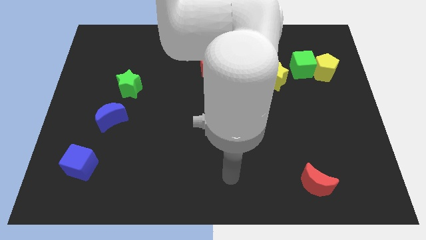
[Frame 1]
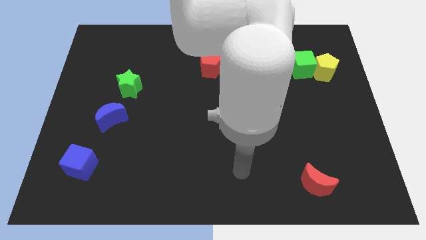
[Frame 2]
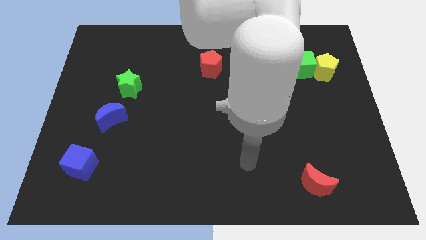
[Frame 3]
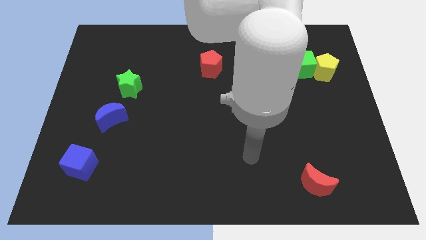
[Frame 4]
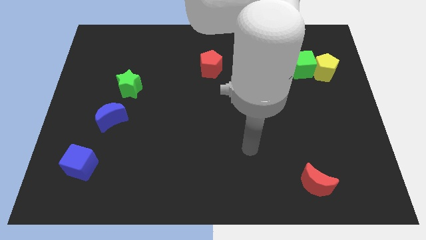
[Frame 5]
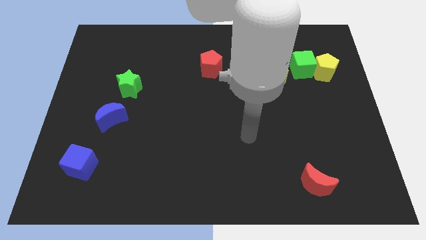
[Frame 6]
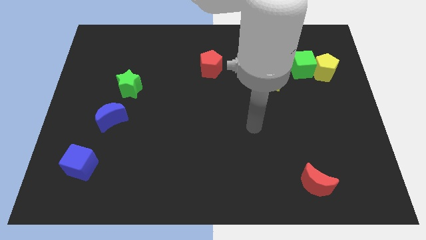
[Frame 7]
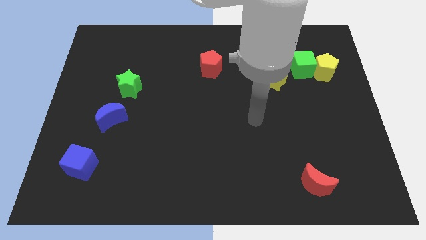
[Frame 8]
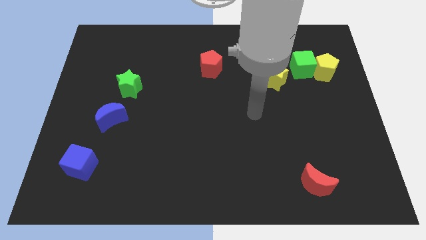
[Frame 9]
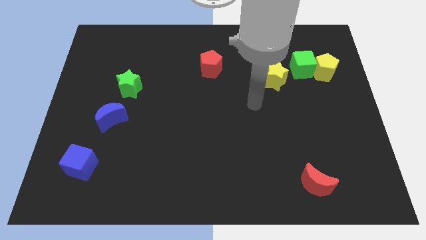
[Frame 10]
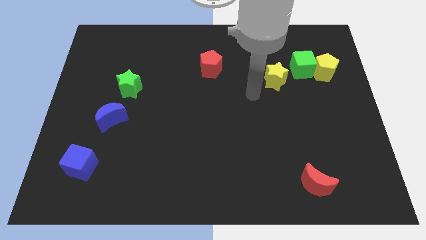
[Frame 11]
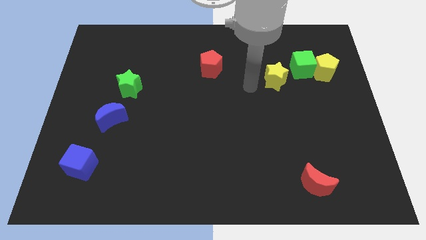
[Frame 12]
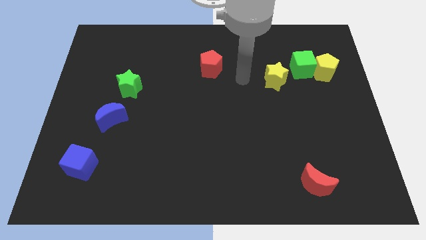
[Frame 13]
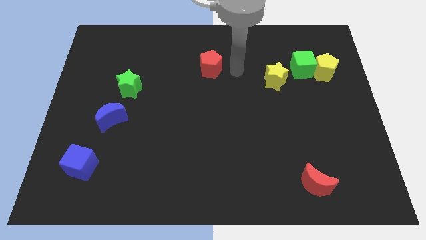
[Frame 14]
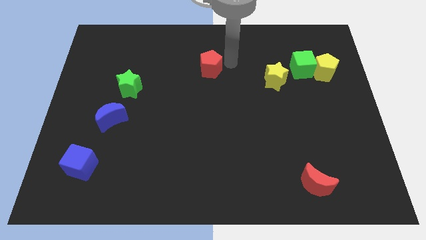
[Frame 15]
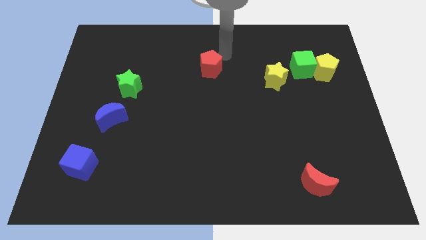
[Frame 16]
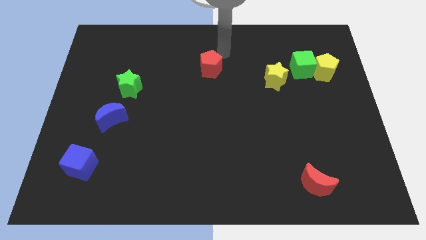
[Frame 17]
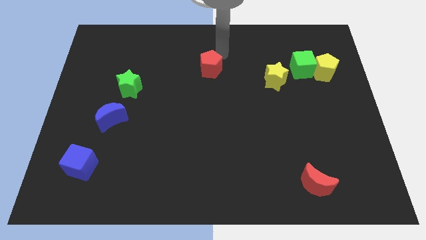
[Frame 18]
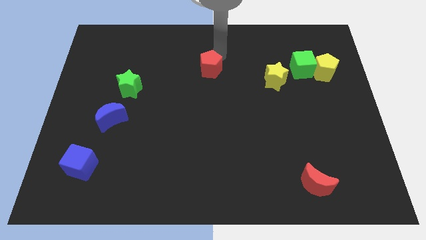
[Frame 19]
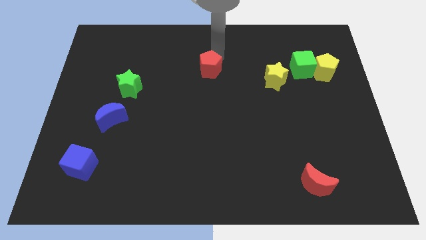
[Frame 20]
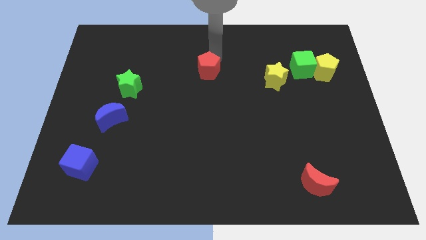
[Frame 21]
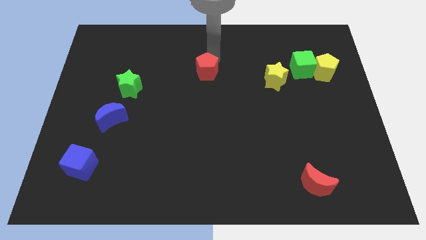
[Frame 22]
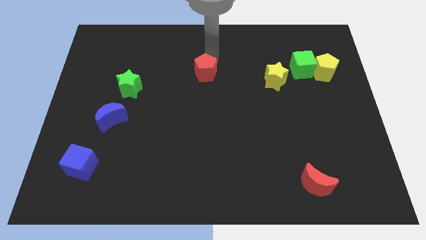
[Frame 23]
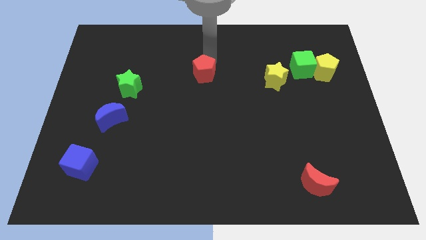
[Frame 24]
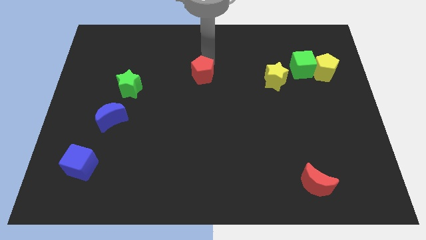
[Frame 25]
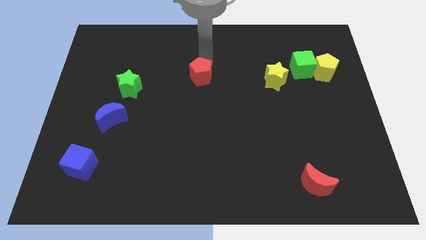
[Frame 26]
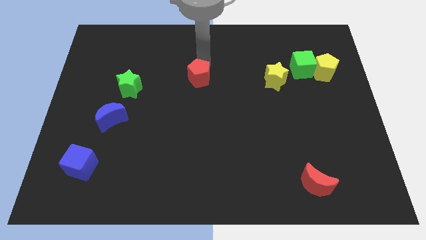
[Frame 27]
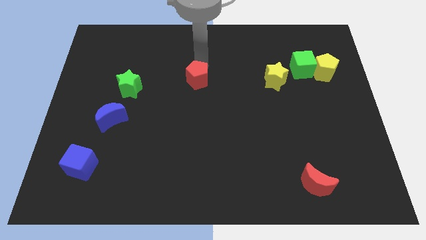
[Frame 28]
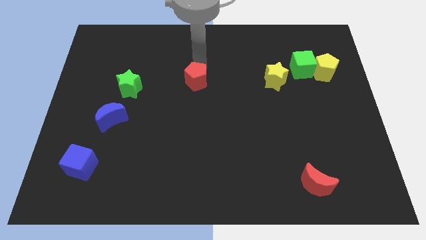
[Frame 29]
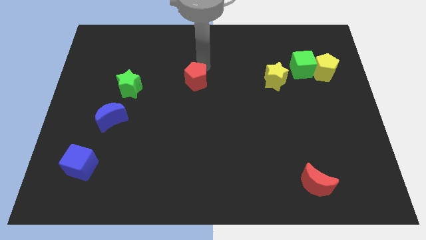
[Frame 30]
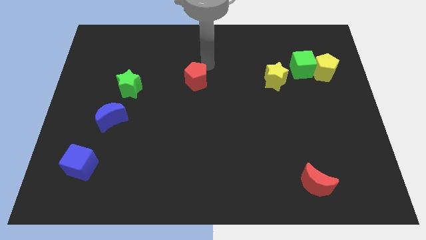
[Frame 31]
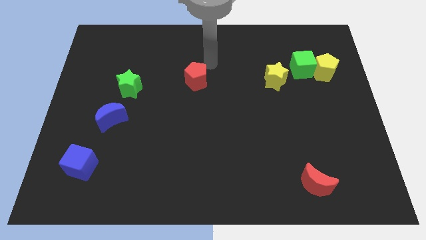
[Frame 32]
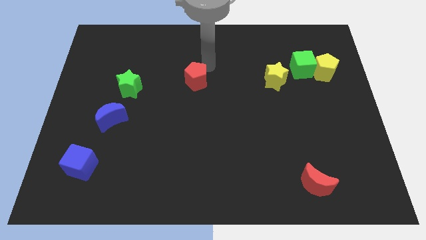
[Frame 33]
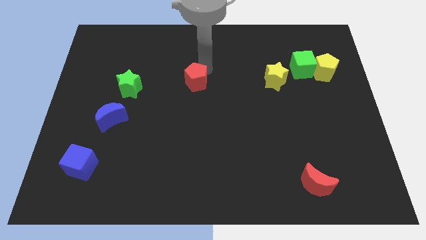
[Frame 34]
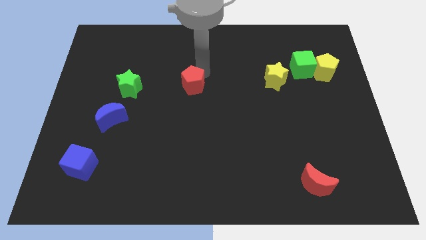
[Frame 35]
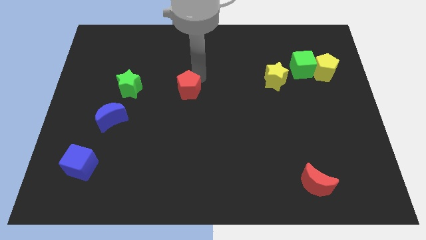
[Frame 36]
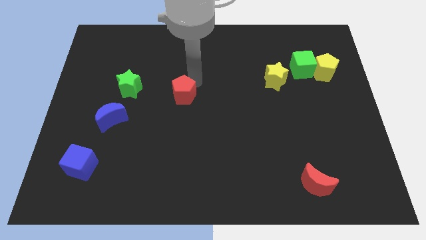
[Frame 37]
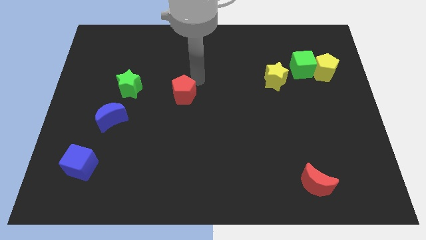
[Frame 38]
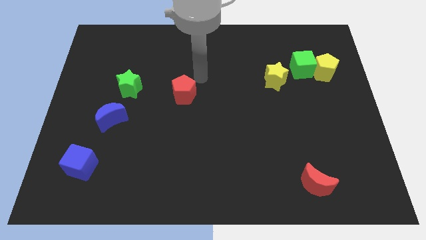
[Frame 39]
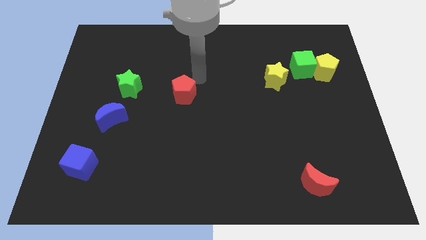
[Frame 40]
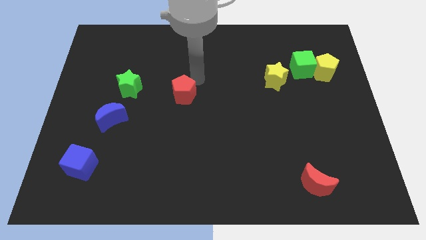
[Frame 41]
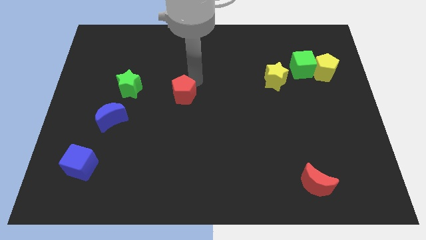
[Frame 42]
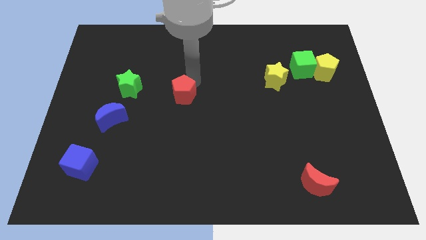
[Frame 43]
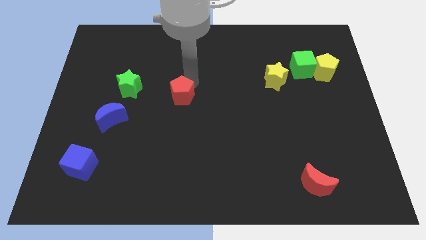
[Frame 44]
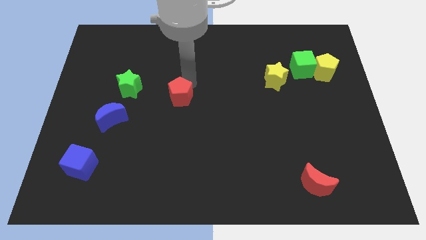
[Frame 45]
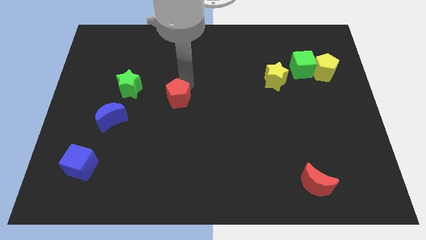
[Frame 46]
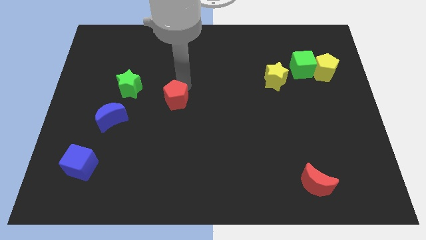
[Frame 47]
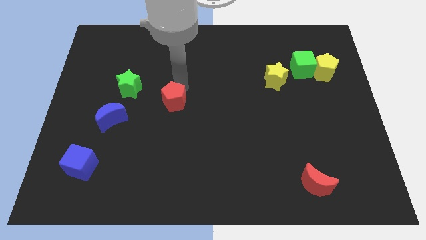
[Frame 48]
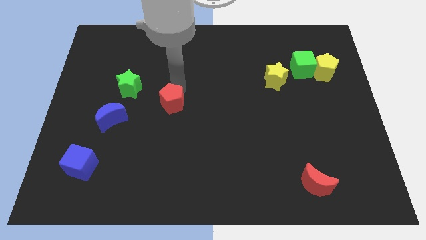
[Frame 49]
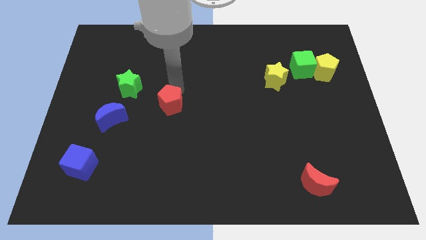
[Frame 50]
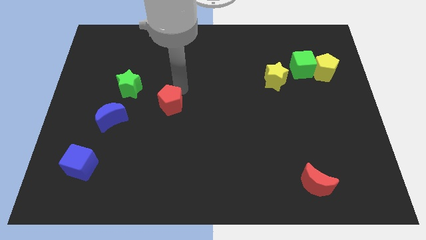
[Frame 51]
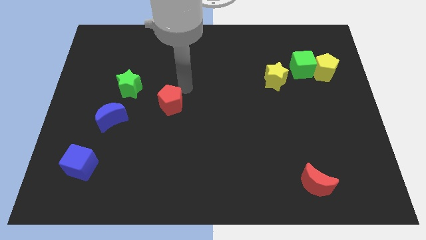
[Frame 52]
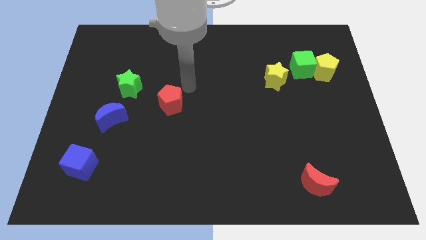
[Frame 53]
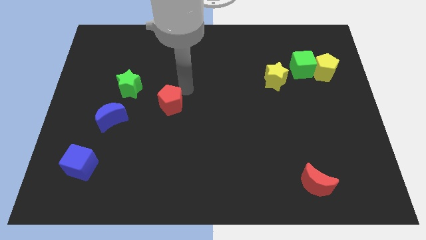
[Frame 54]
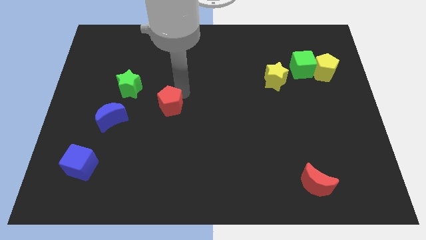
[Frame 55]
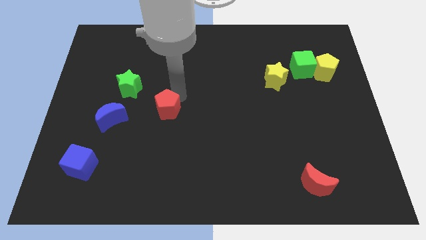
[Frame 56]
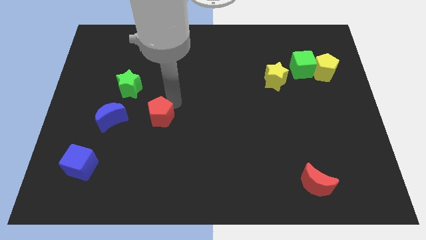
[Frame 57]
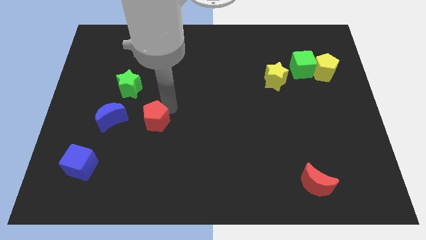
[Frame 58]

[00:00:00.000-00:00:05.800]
push the red pentagon diagonally downwards and to the left

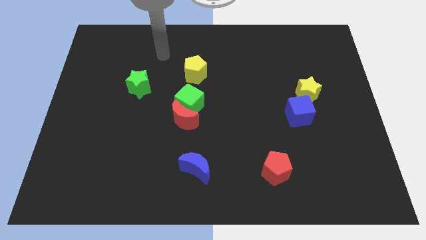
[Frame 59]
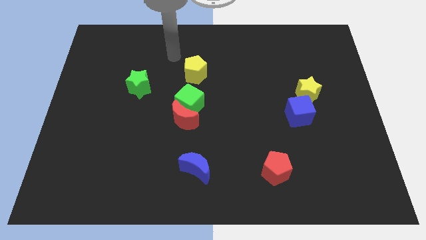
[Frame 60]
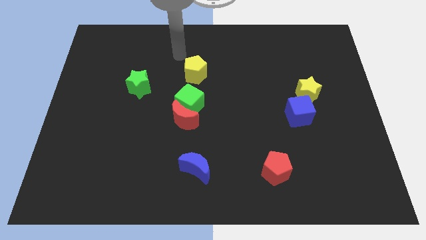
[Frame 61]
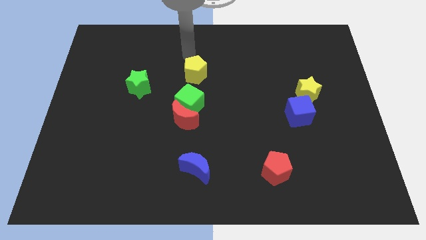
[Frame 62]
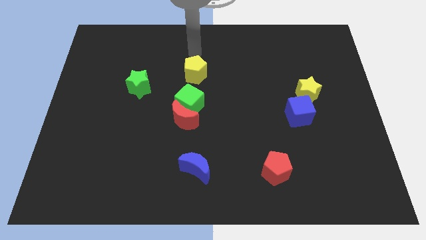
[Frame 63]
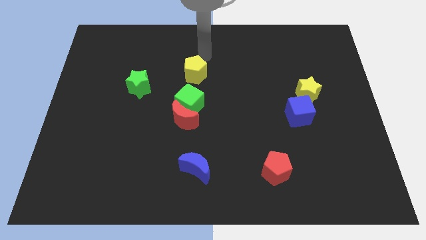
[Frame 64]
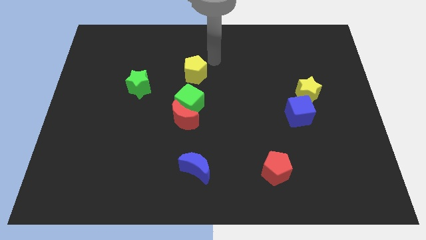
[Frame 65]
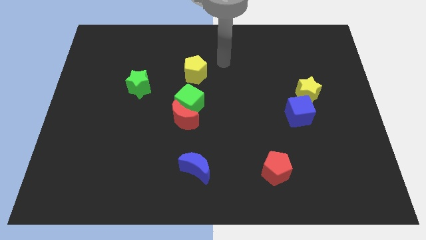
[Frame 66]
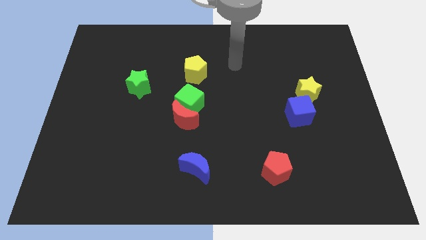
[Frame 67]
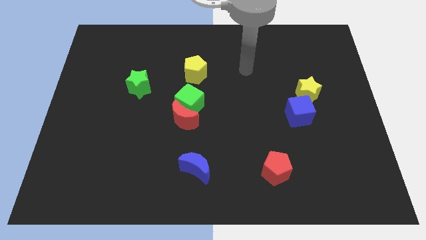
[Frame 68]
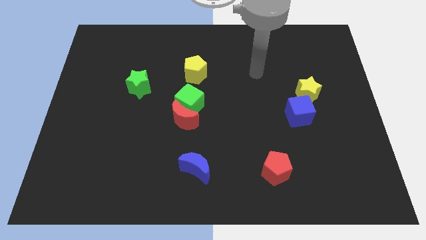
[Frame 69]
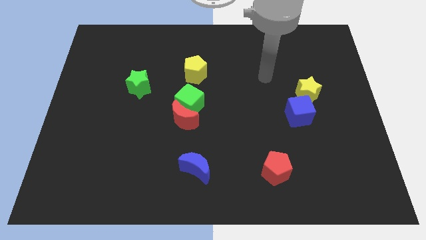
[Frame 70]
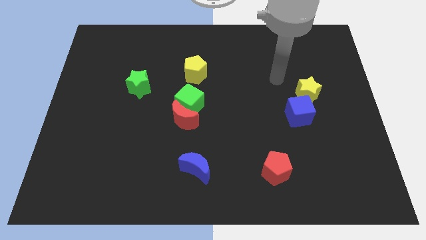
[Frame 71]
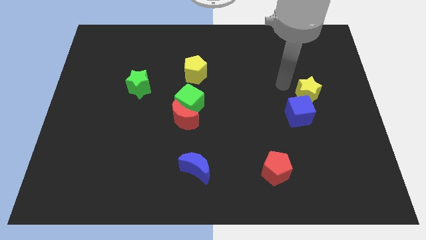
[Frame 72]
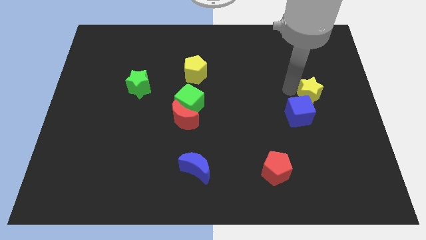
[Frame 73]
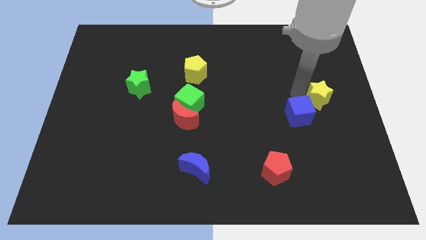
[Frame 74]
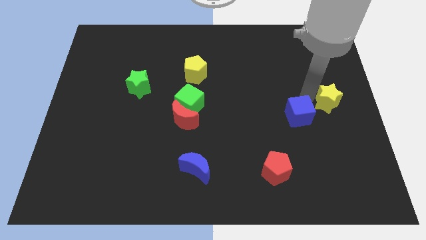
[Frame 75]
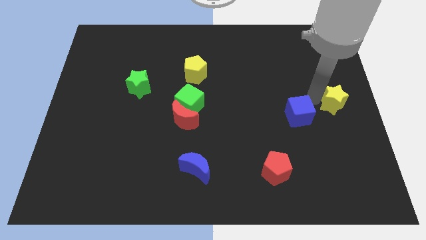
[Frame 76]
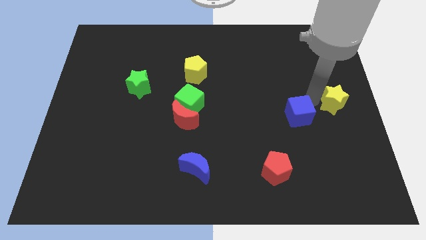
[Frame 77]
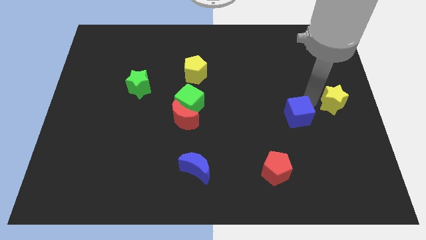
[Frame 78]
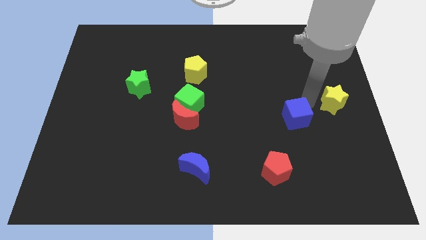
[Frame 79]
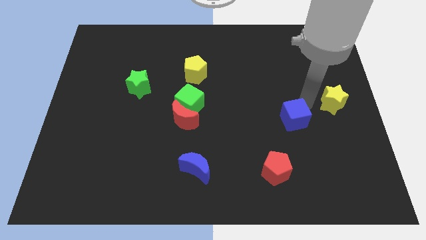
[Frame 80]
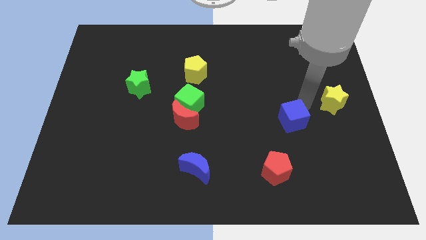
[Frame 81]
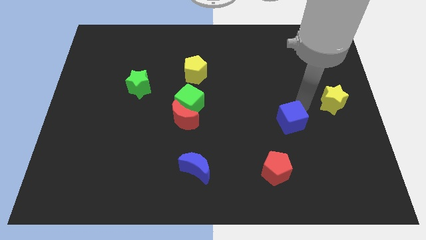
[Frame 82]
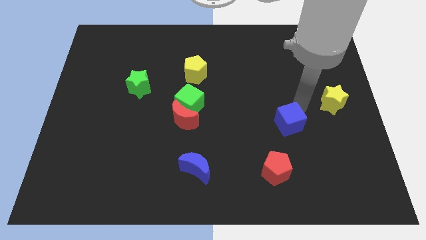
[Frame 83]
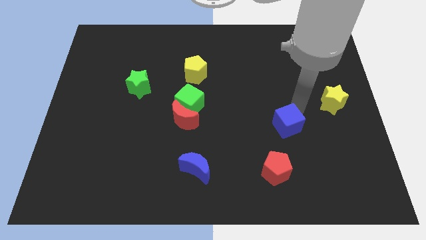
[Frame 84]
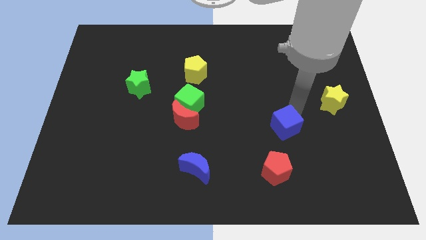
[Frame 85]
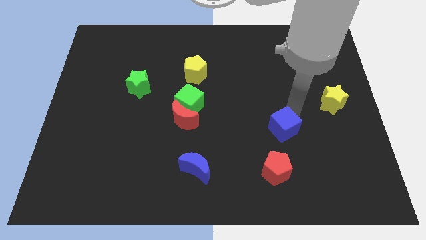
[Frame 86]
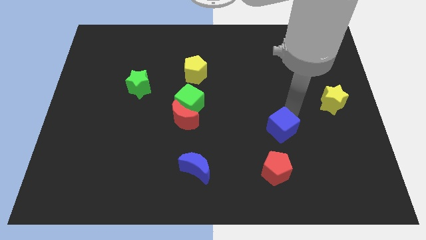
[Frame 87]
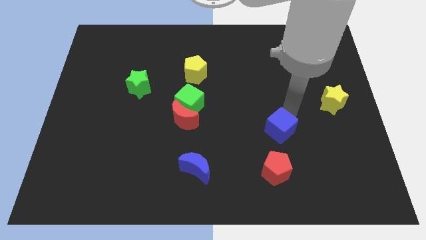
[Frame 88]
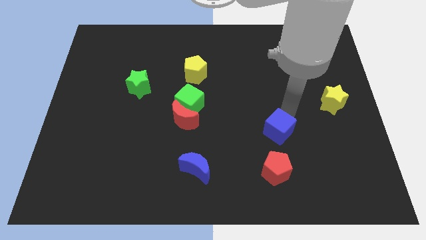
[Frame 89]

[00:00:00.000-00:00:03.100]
slightly slide the blue cube down and to the left
